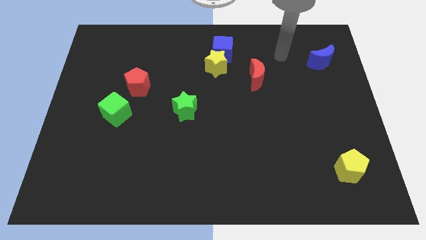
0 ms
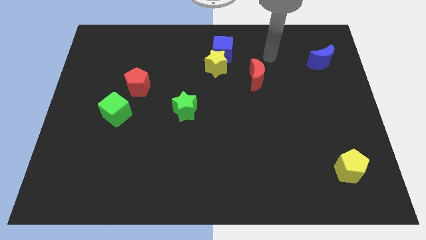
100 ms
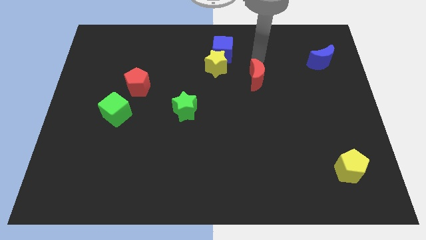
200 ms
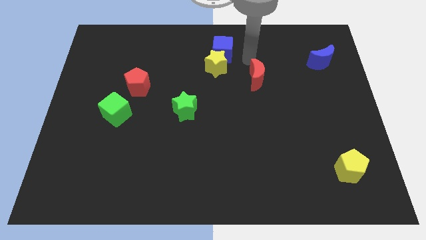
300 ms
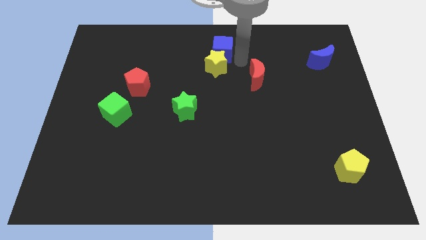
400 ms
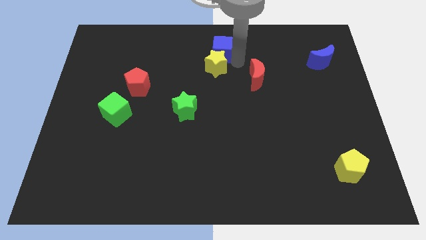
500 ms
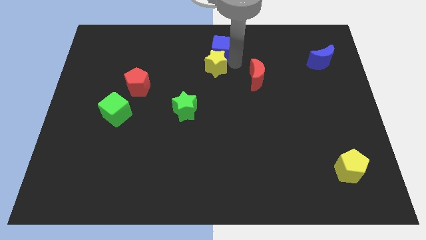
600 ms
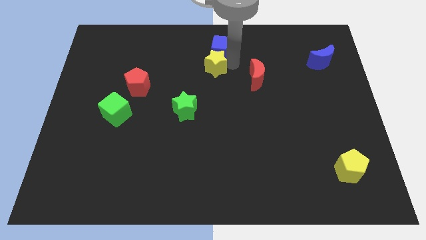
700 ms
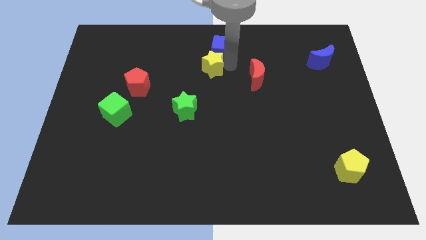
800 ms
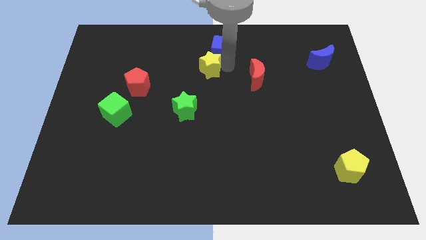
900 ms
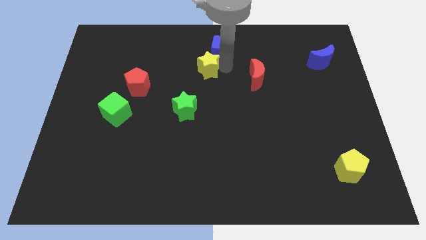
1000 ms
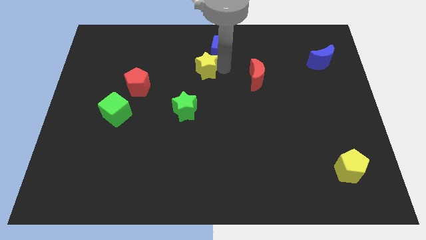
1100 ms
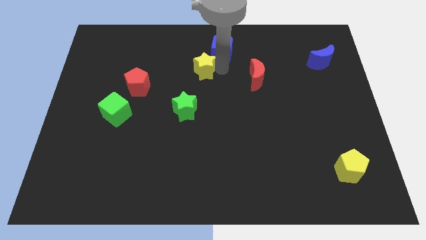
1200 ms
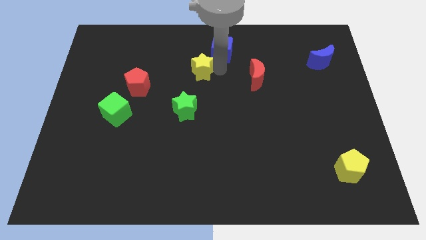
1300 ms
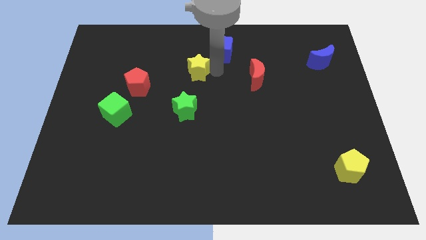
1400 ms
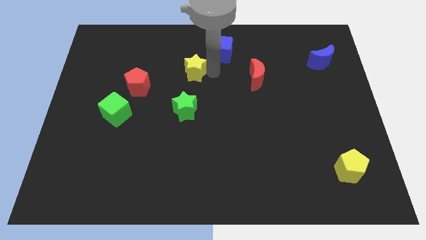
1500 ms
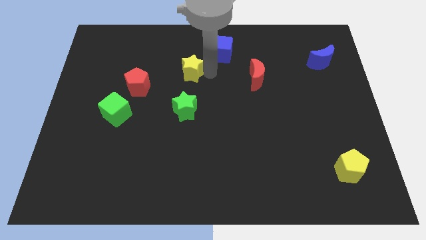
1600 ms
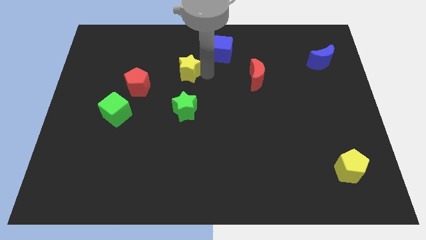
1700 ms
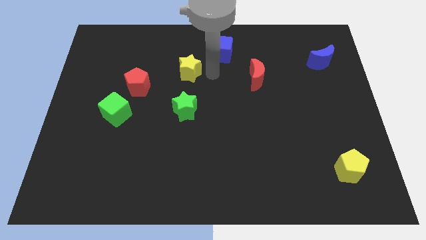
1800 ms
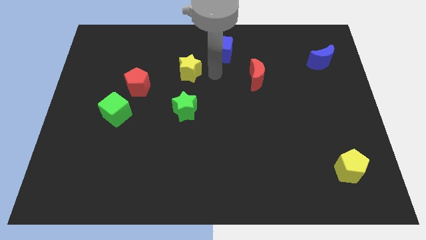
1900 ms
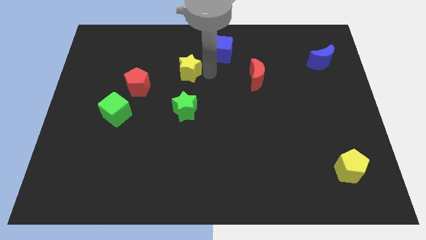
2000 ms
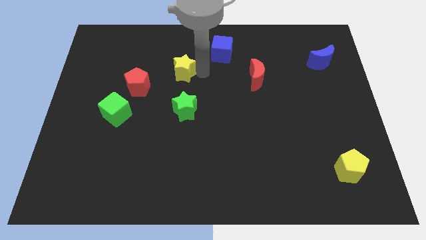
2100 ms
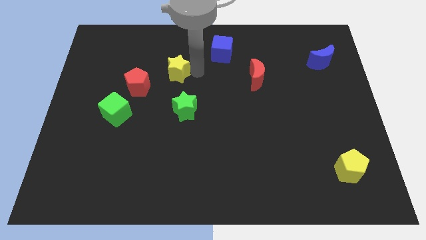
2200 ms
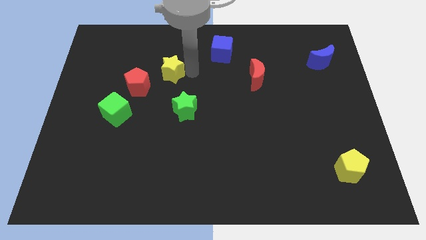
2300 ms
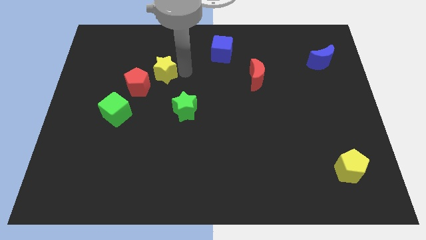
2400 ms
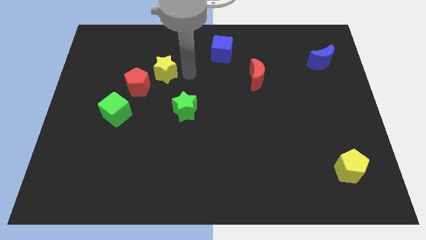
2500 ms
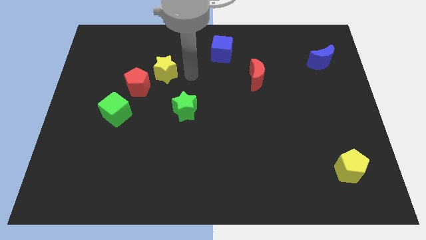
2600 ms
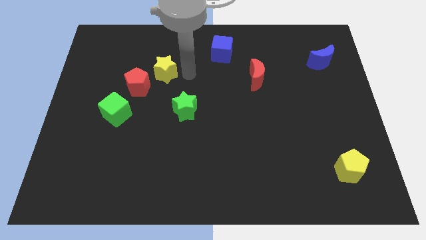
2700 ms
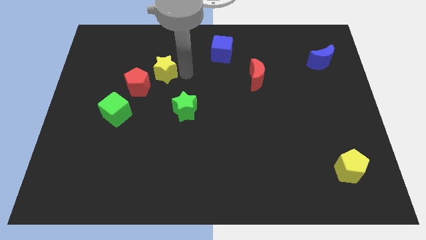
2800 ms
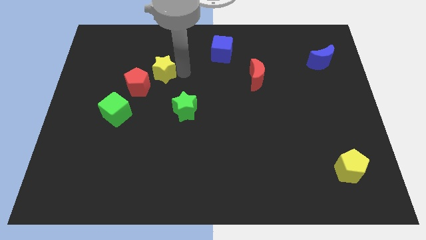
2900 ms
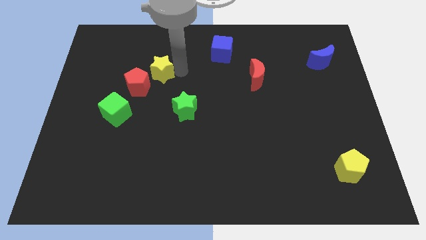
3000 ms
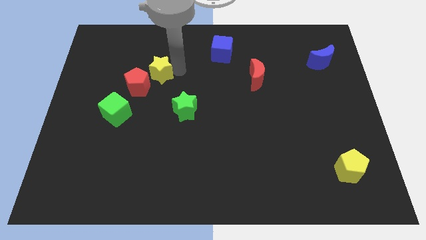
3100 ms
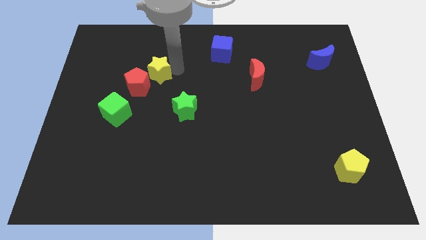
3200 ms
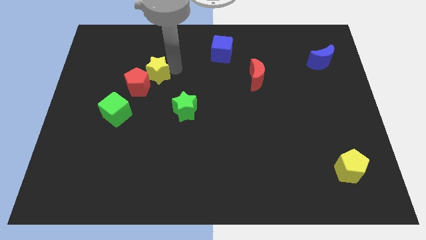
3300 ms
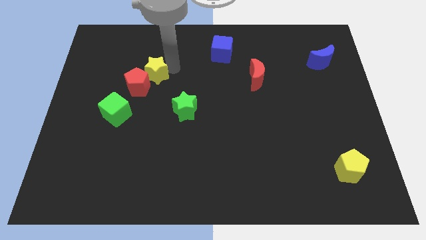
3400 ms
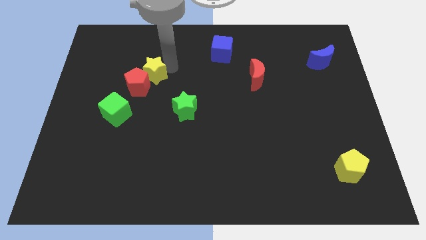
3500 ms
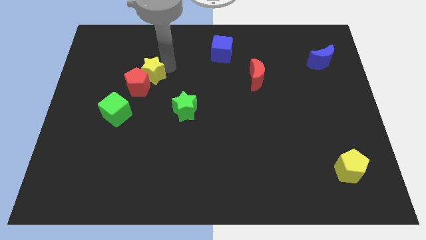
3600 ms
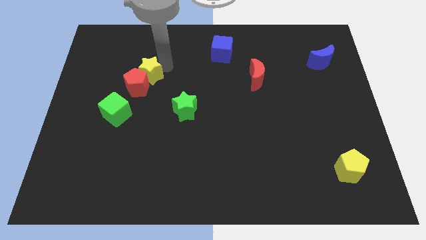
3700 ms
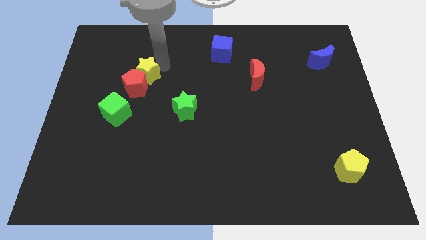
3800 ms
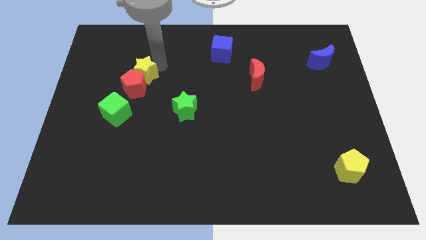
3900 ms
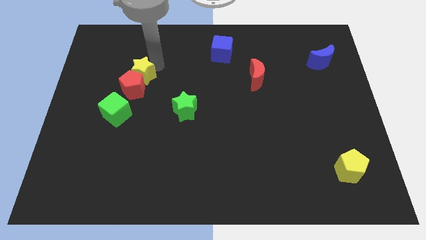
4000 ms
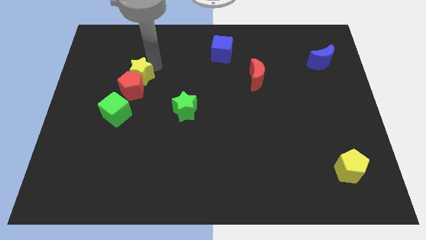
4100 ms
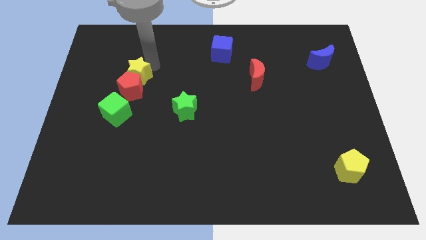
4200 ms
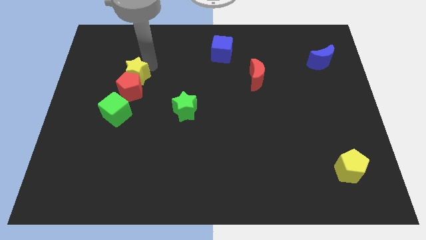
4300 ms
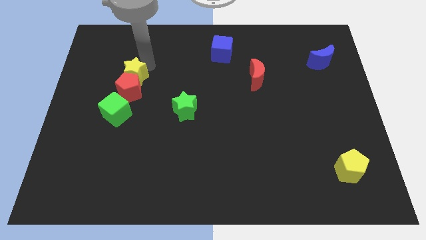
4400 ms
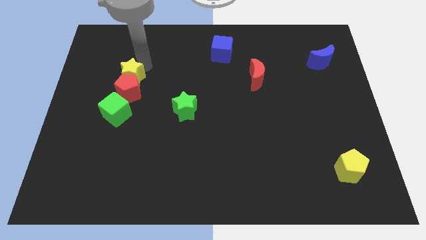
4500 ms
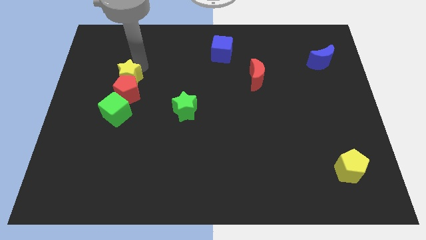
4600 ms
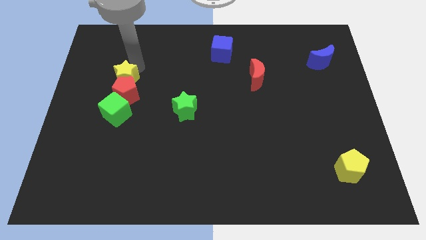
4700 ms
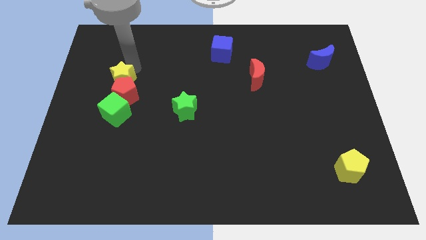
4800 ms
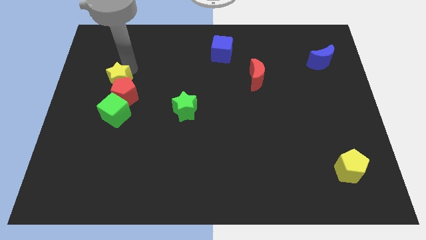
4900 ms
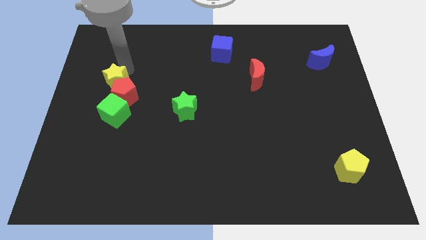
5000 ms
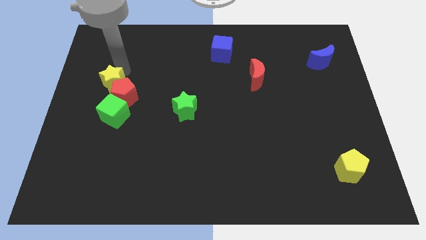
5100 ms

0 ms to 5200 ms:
move the yellow star left of the red pentagon

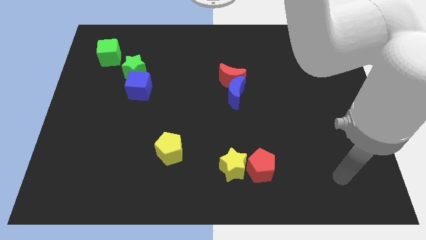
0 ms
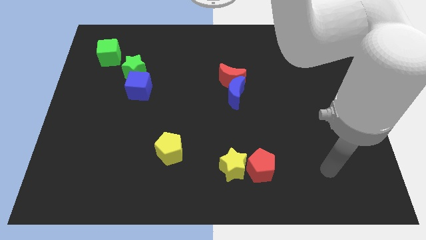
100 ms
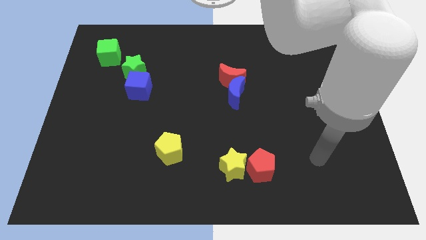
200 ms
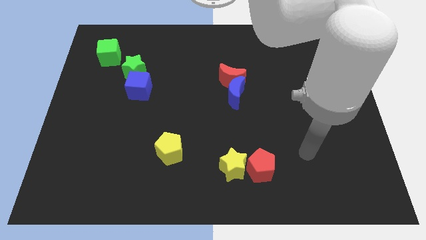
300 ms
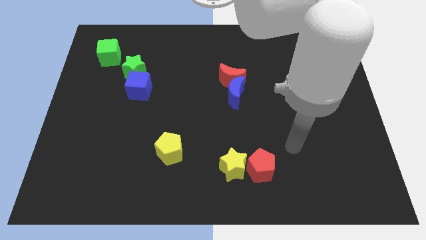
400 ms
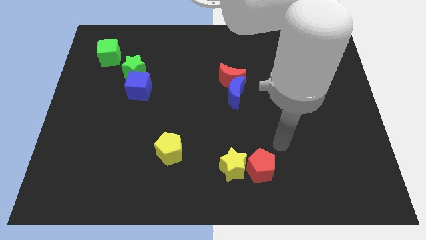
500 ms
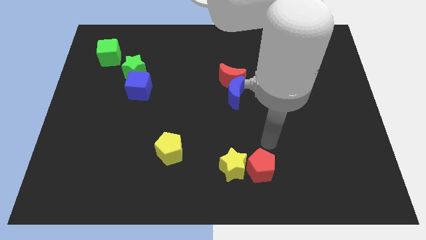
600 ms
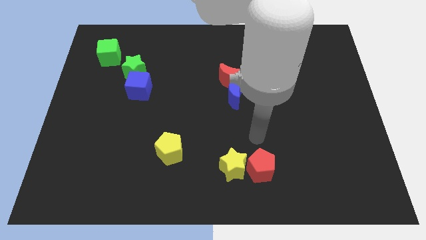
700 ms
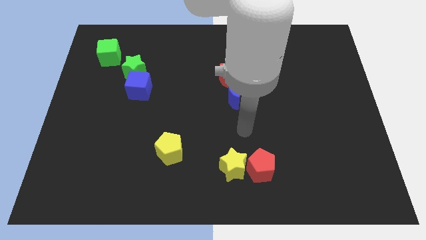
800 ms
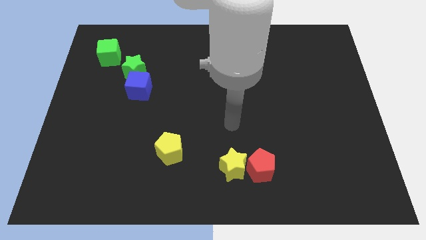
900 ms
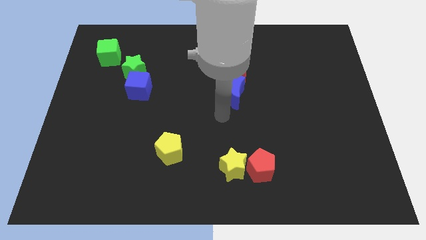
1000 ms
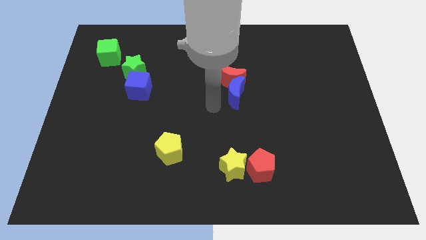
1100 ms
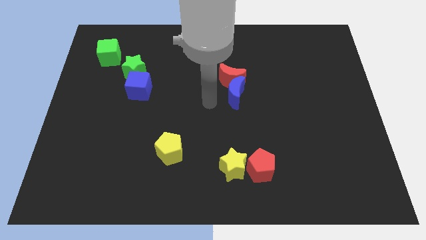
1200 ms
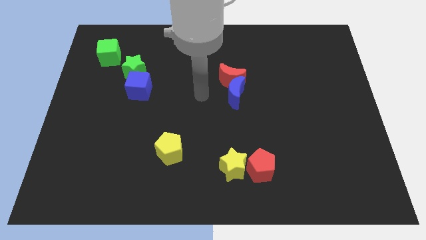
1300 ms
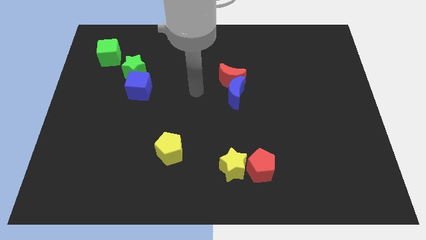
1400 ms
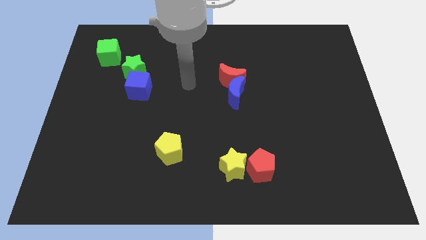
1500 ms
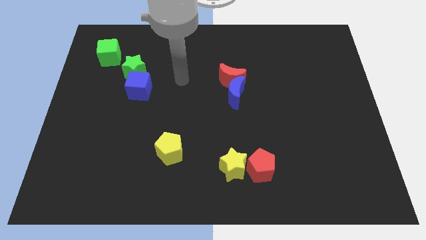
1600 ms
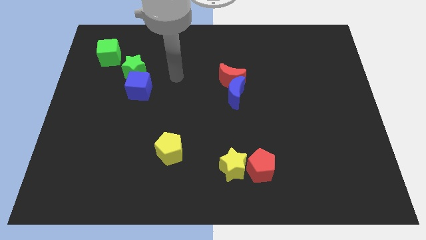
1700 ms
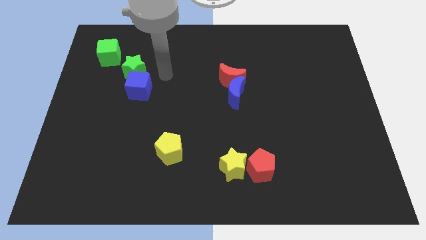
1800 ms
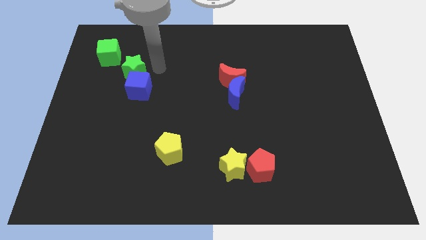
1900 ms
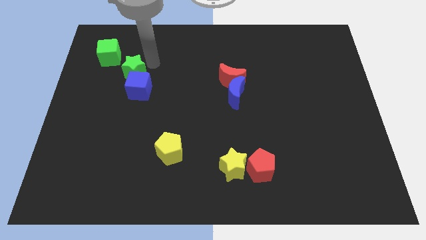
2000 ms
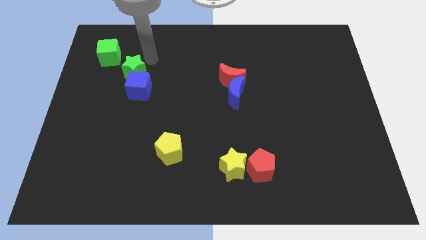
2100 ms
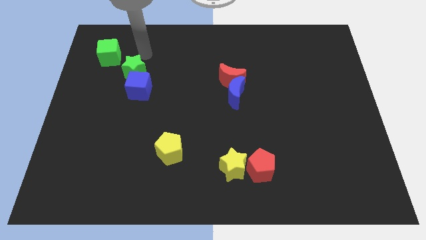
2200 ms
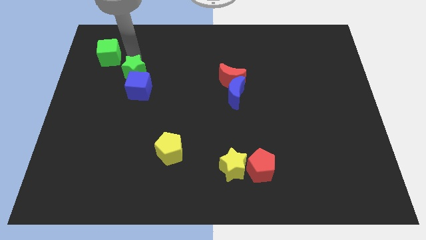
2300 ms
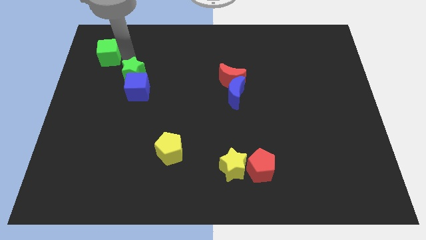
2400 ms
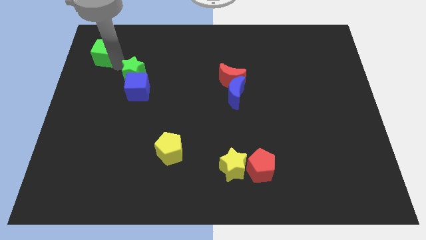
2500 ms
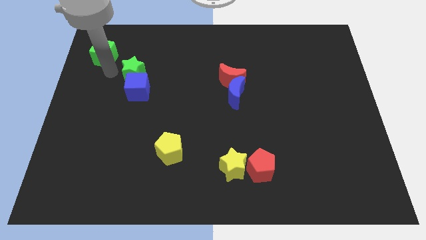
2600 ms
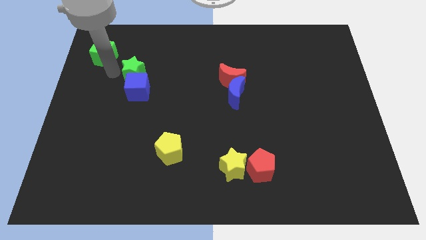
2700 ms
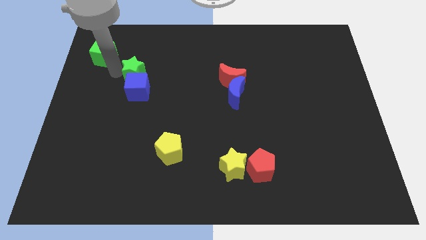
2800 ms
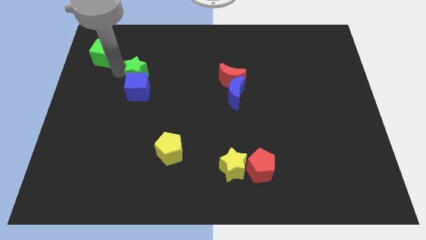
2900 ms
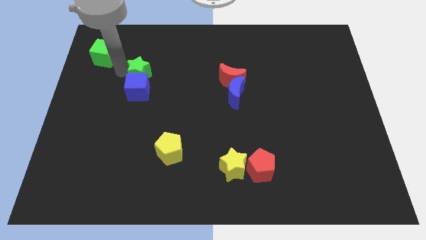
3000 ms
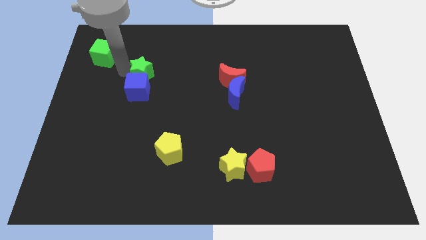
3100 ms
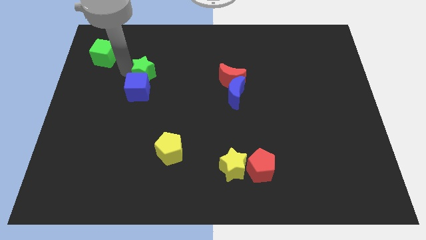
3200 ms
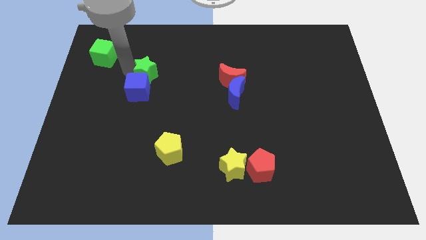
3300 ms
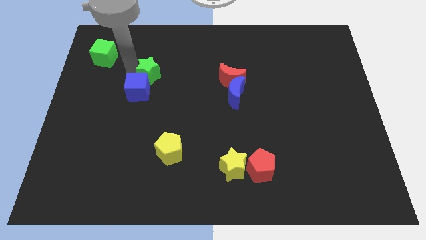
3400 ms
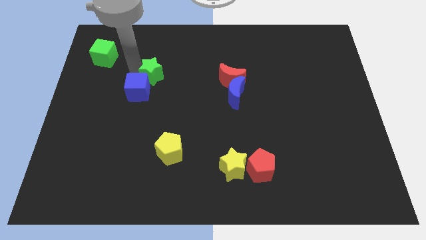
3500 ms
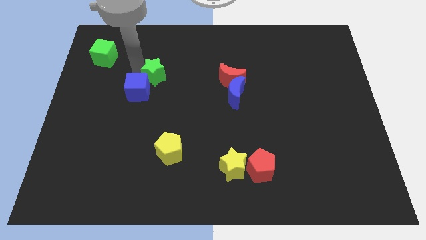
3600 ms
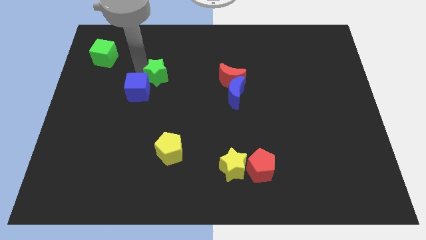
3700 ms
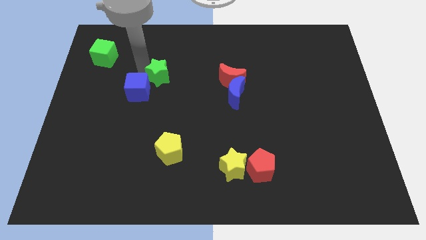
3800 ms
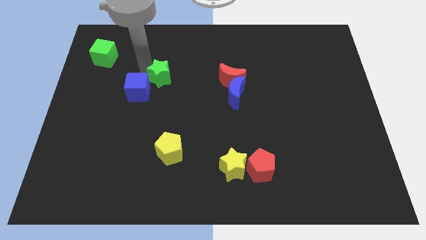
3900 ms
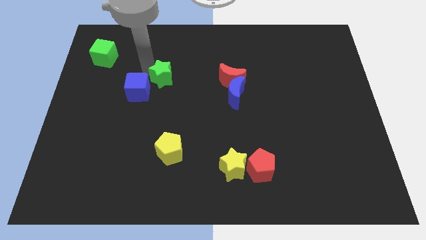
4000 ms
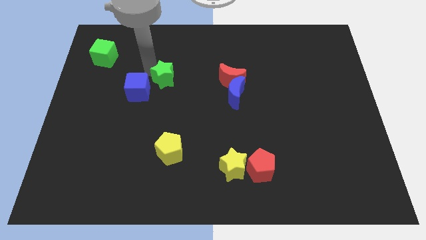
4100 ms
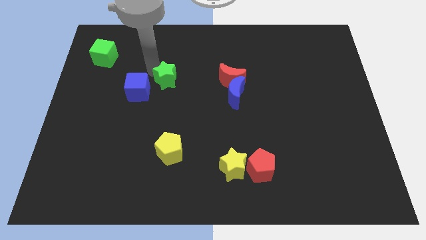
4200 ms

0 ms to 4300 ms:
push the green star to the left of the red moon
